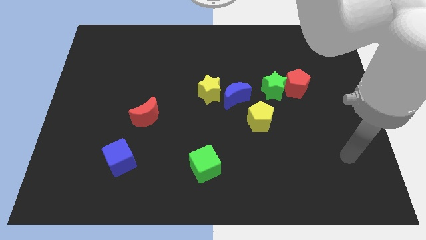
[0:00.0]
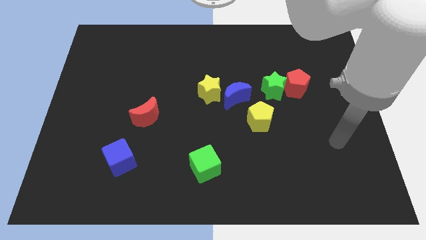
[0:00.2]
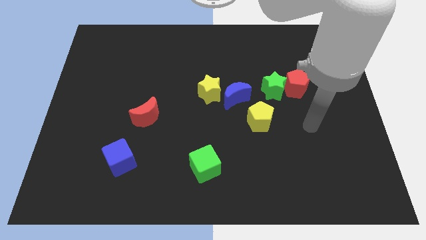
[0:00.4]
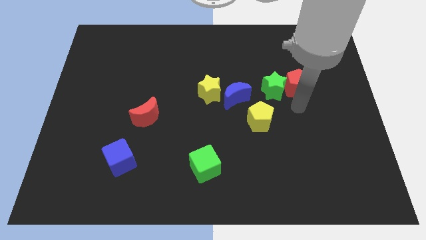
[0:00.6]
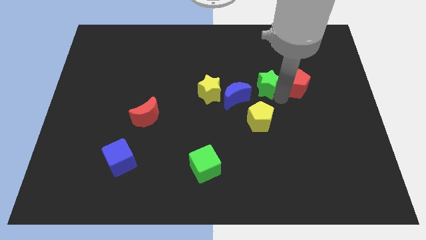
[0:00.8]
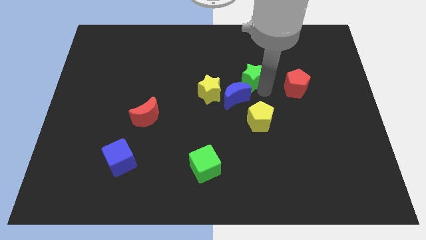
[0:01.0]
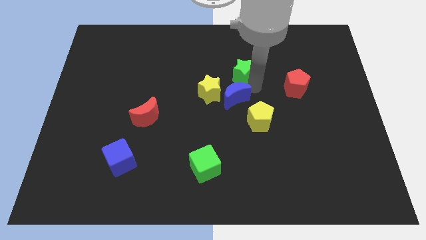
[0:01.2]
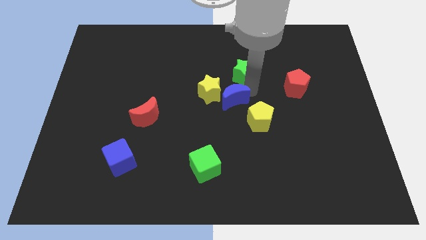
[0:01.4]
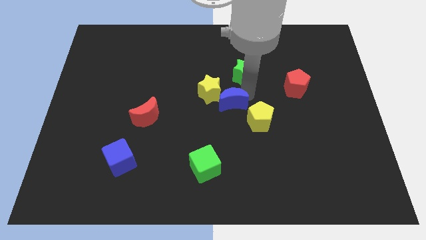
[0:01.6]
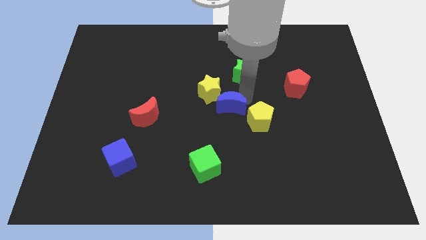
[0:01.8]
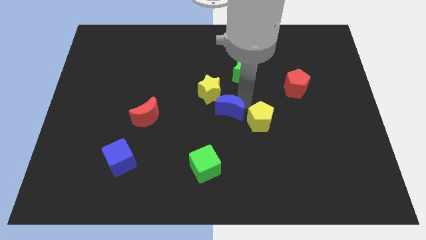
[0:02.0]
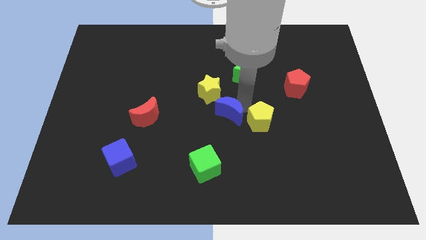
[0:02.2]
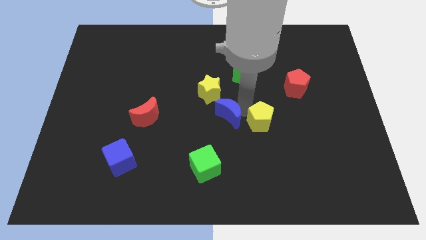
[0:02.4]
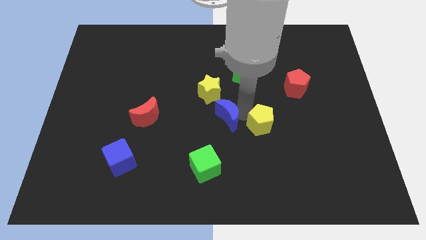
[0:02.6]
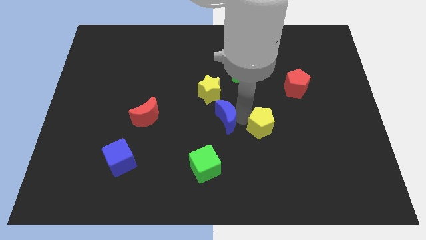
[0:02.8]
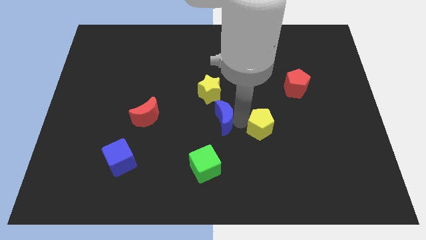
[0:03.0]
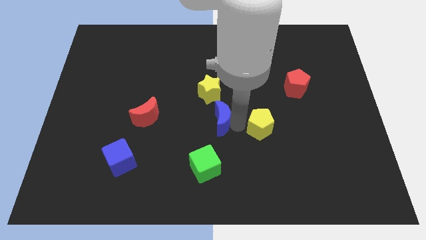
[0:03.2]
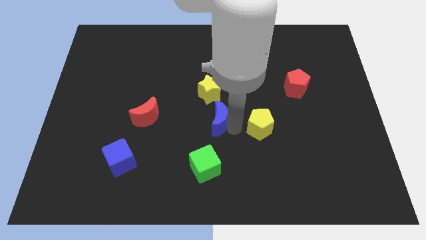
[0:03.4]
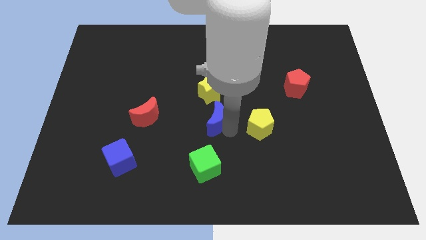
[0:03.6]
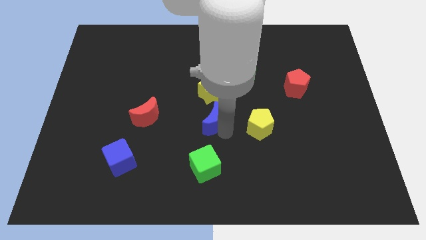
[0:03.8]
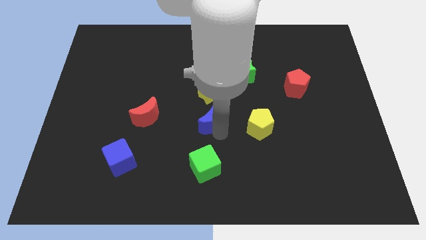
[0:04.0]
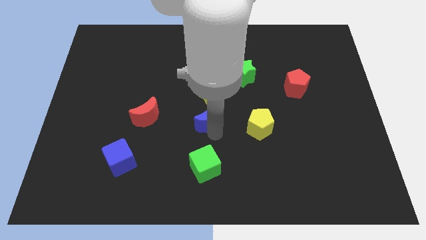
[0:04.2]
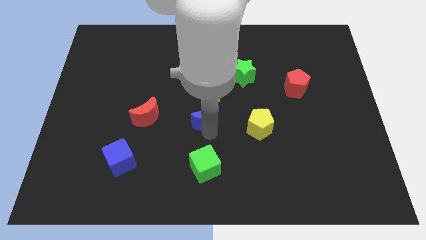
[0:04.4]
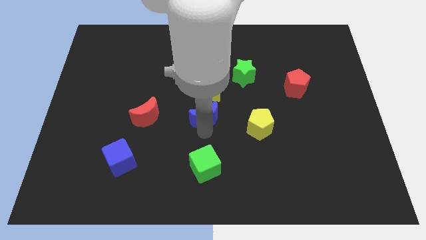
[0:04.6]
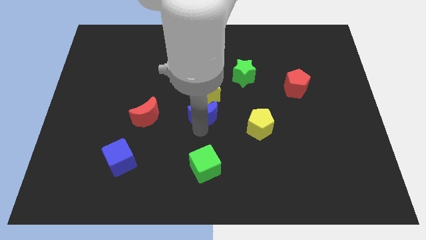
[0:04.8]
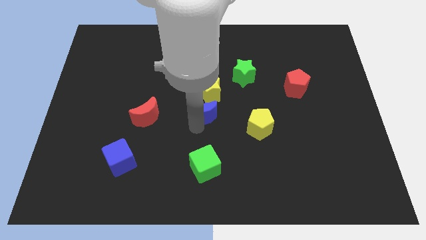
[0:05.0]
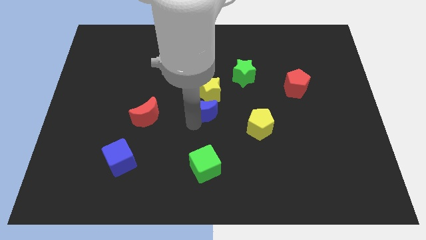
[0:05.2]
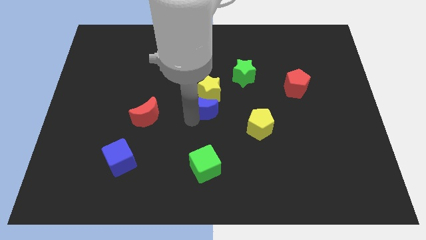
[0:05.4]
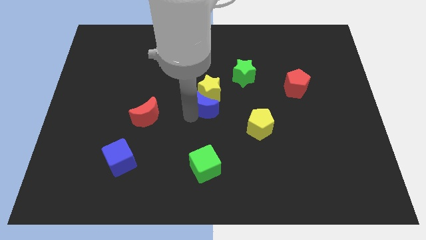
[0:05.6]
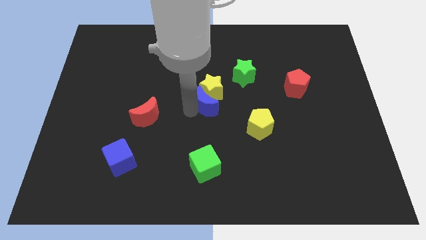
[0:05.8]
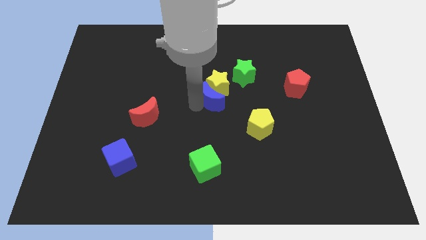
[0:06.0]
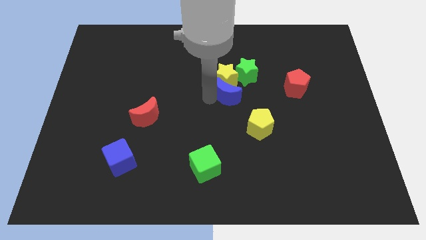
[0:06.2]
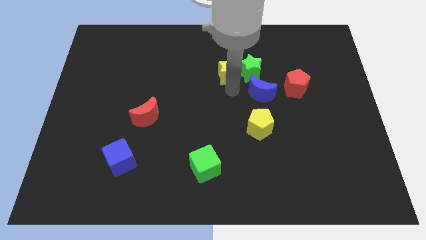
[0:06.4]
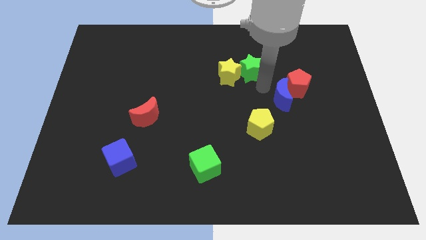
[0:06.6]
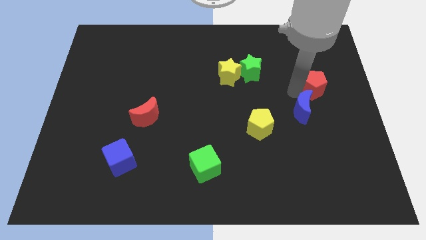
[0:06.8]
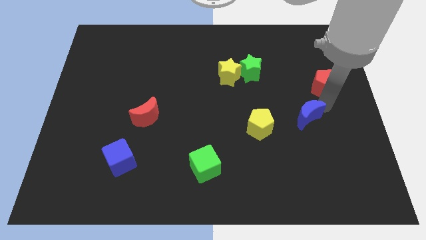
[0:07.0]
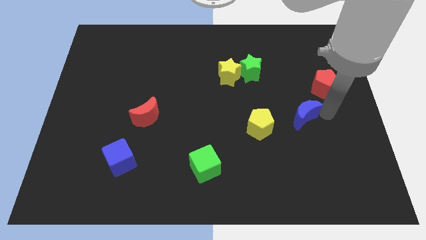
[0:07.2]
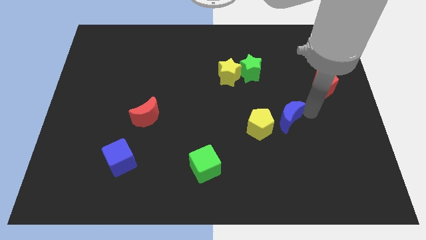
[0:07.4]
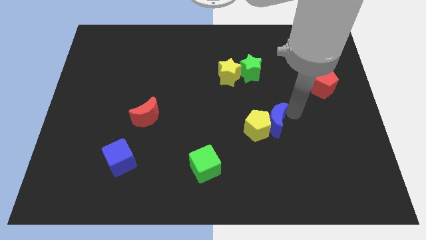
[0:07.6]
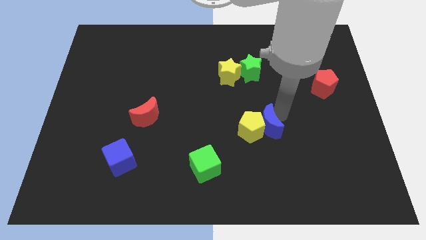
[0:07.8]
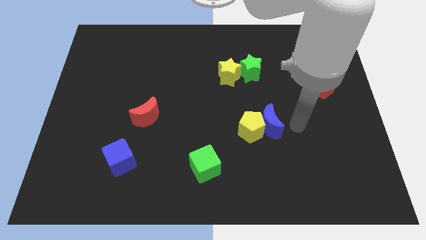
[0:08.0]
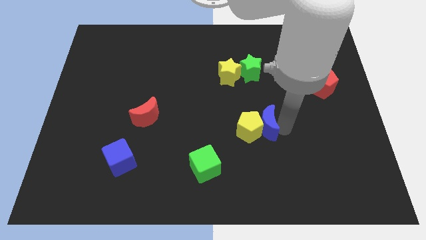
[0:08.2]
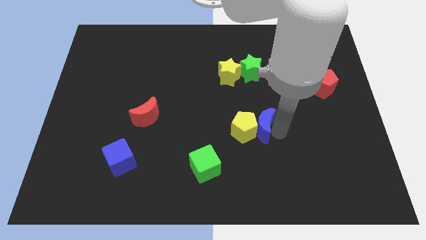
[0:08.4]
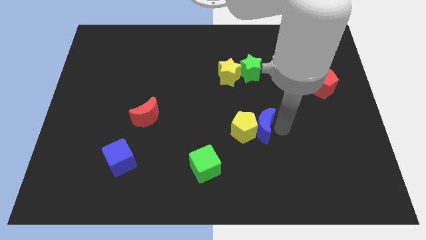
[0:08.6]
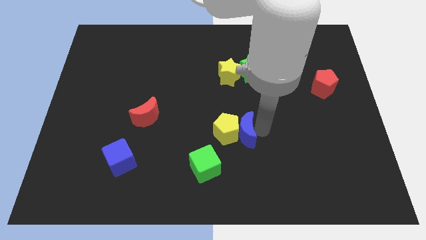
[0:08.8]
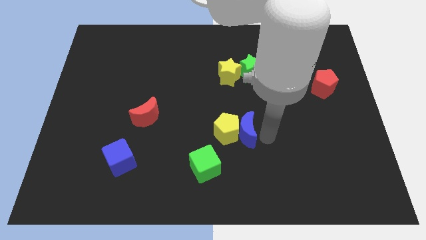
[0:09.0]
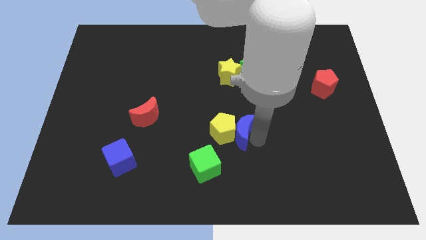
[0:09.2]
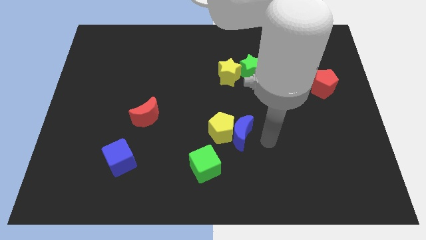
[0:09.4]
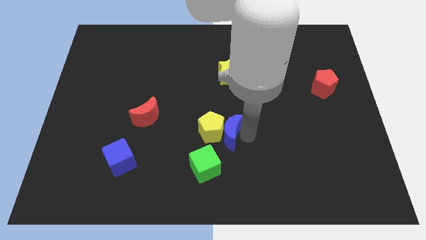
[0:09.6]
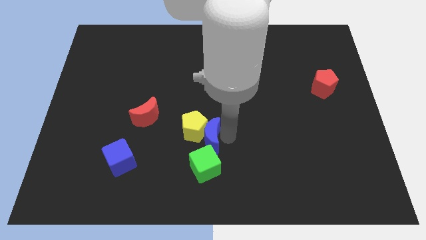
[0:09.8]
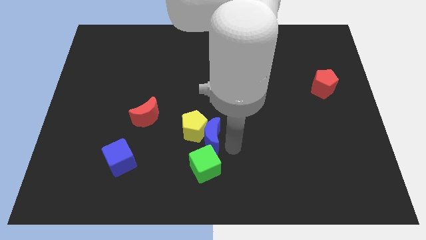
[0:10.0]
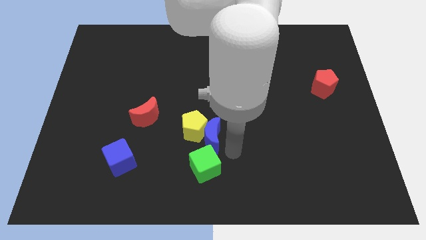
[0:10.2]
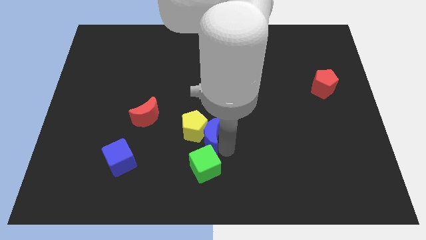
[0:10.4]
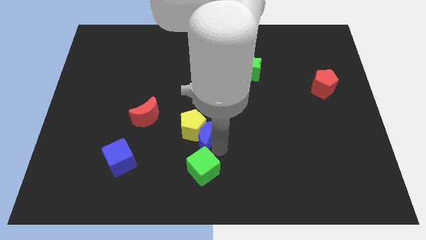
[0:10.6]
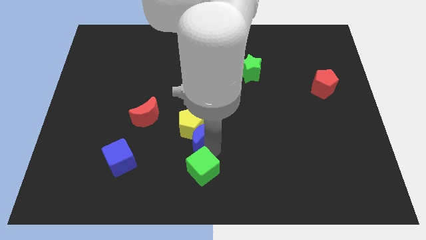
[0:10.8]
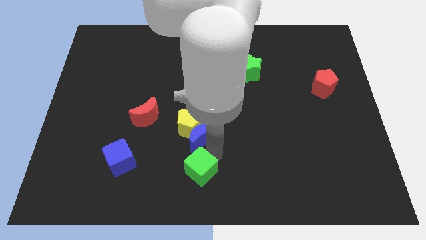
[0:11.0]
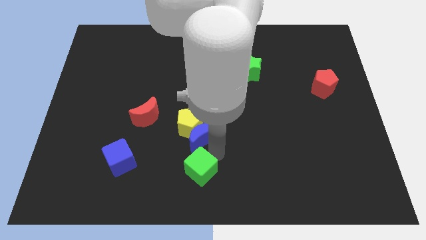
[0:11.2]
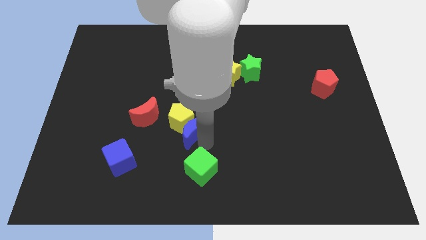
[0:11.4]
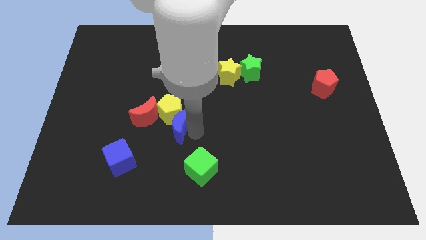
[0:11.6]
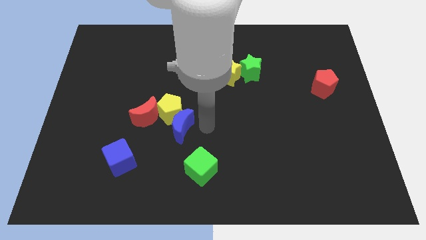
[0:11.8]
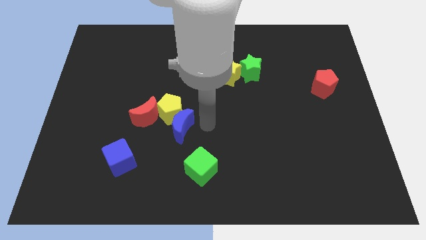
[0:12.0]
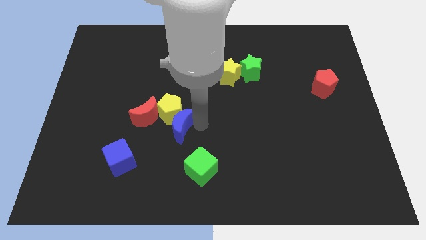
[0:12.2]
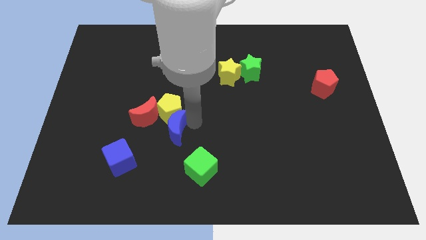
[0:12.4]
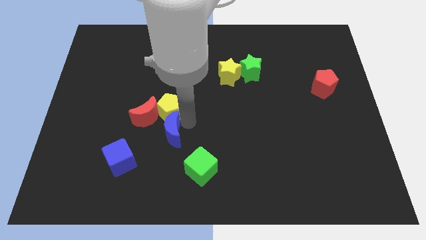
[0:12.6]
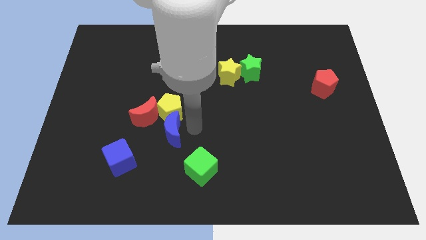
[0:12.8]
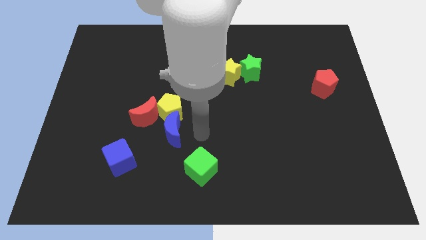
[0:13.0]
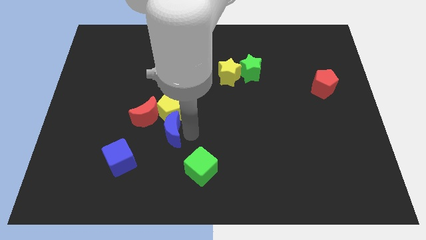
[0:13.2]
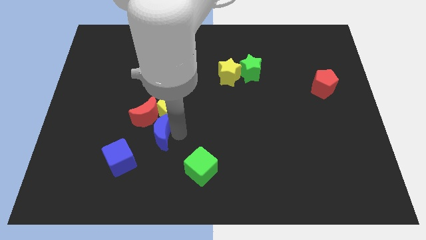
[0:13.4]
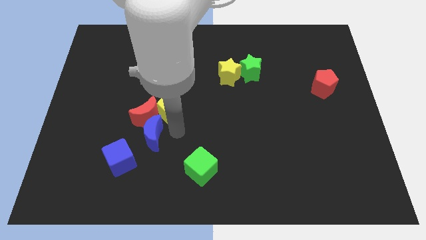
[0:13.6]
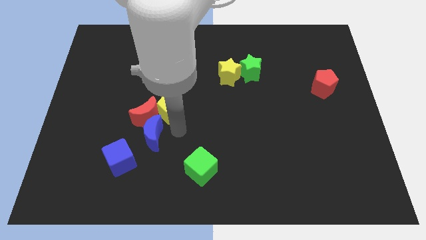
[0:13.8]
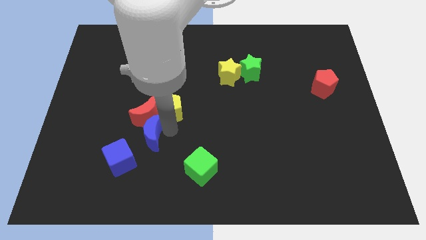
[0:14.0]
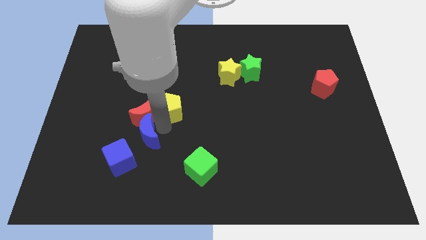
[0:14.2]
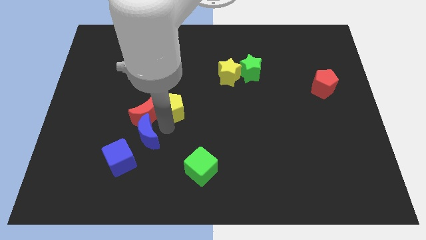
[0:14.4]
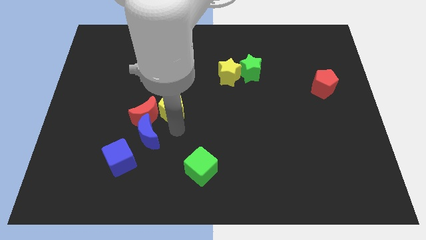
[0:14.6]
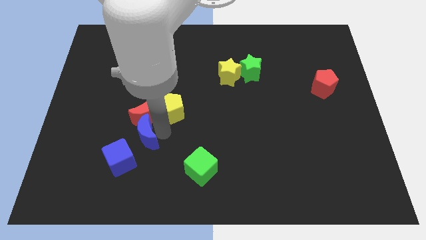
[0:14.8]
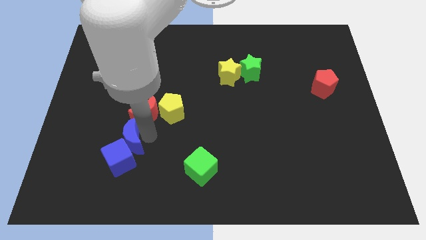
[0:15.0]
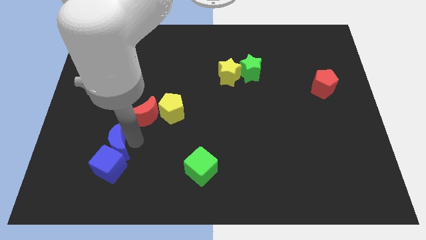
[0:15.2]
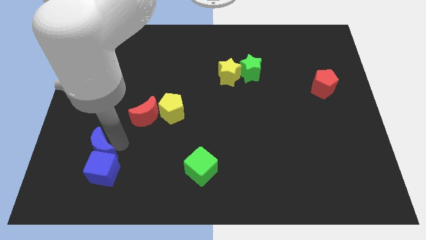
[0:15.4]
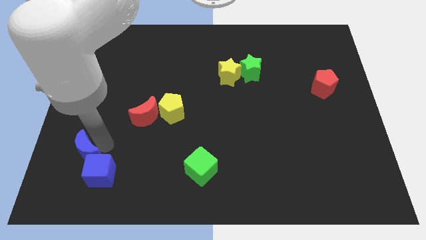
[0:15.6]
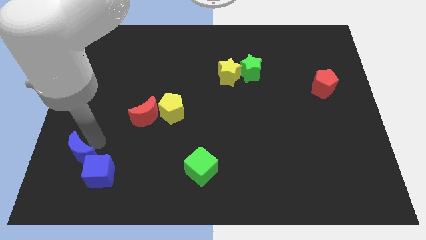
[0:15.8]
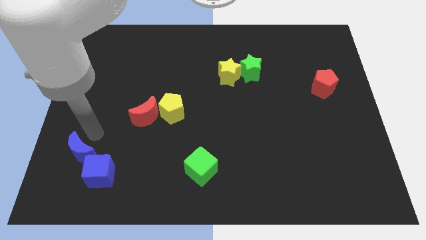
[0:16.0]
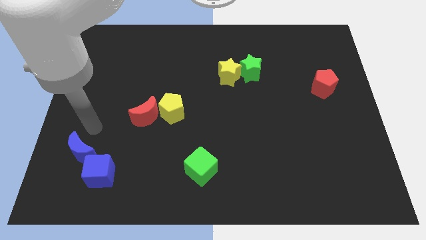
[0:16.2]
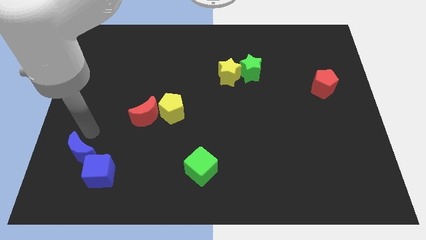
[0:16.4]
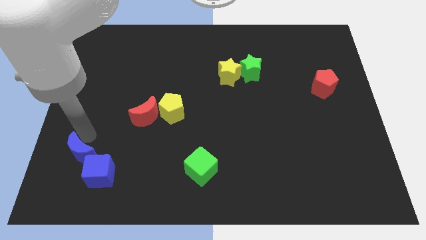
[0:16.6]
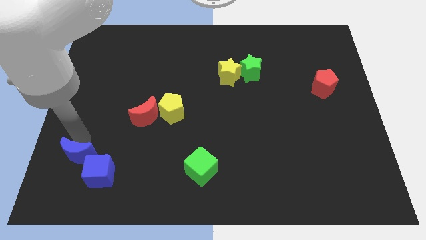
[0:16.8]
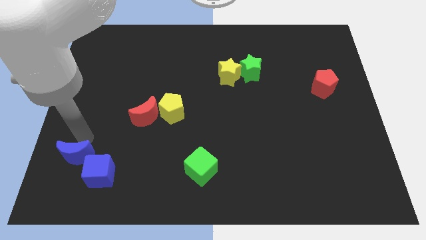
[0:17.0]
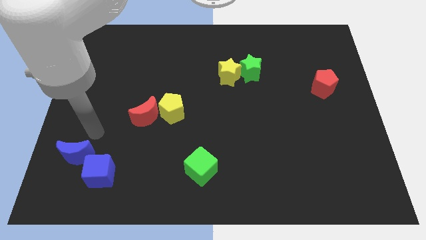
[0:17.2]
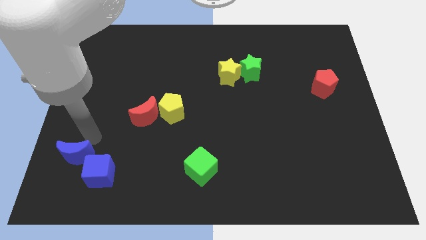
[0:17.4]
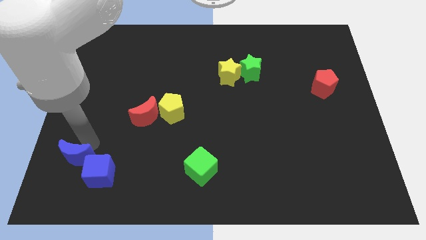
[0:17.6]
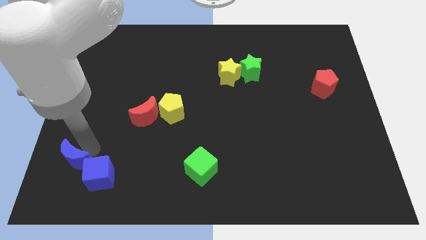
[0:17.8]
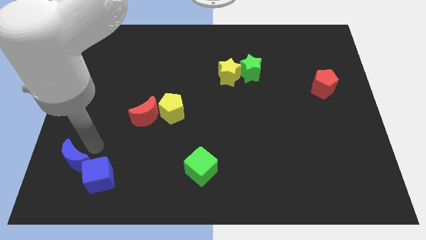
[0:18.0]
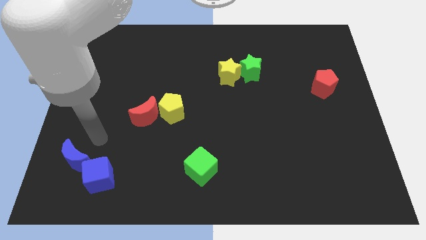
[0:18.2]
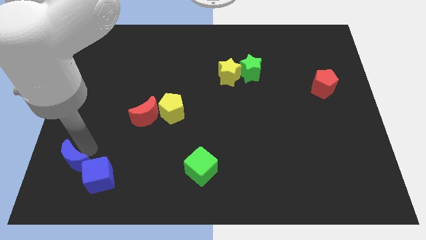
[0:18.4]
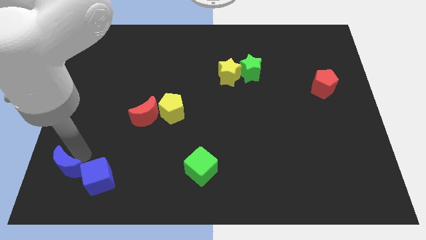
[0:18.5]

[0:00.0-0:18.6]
put the blue moon to the lower left corner
